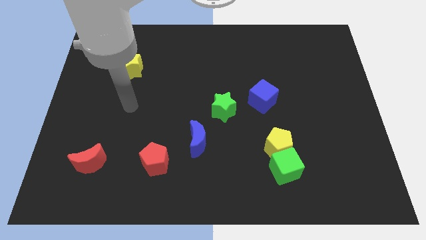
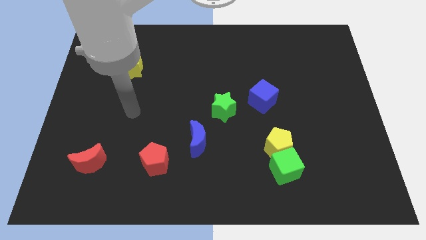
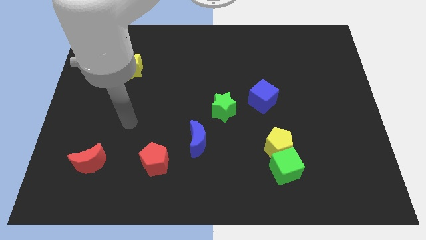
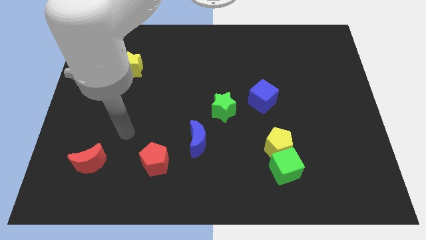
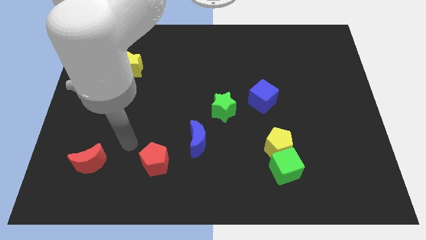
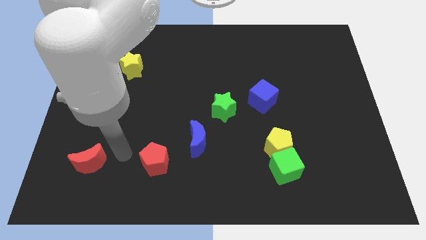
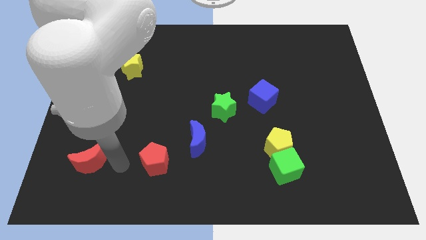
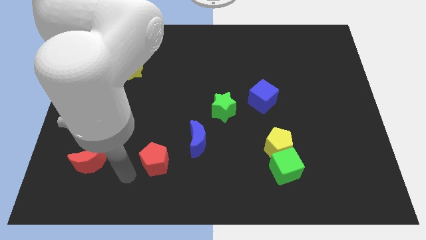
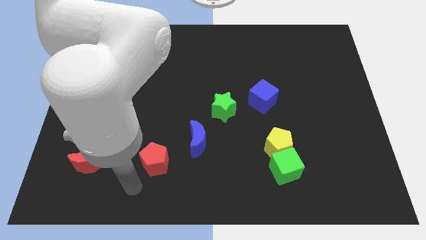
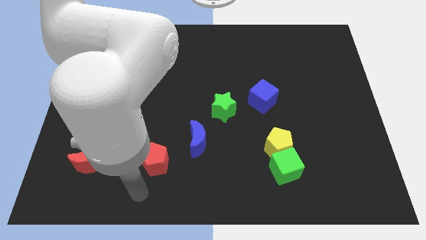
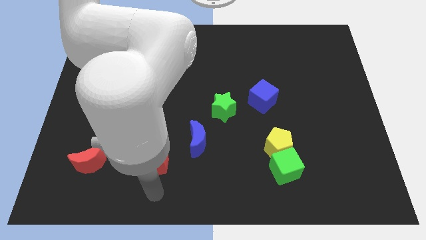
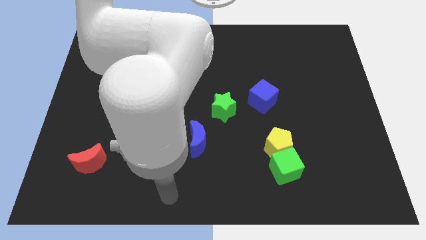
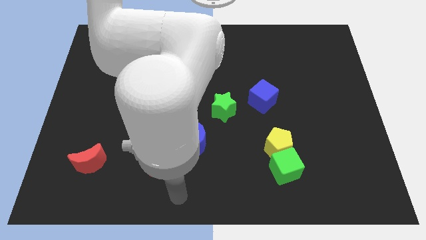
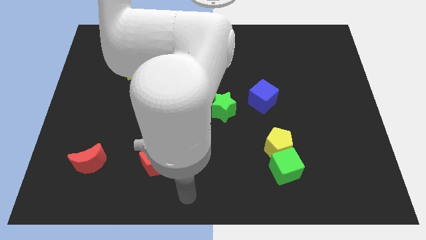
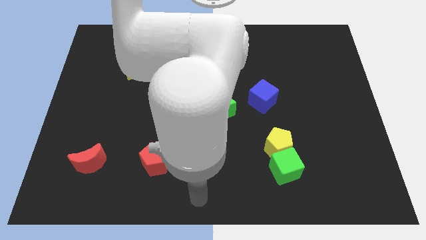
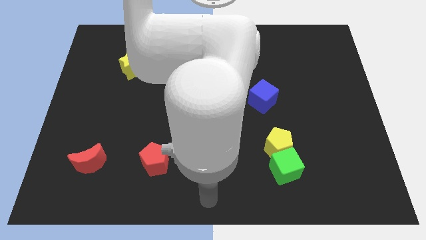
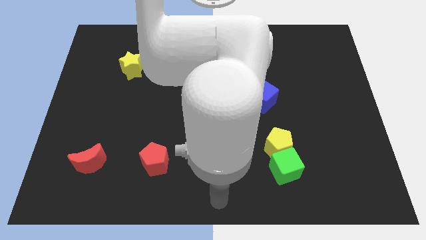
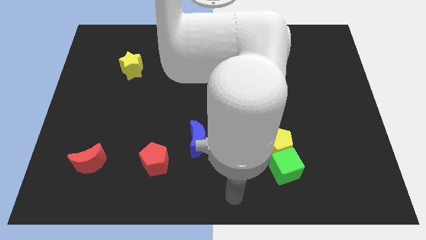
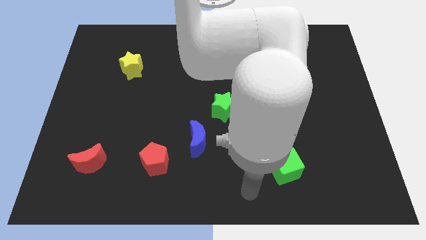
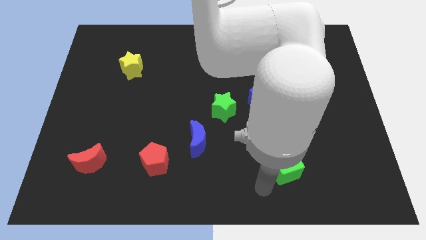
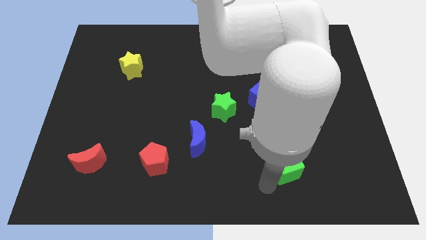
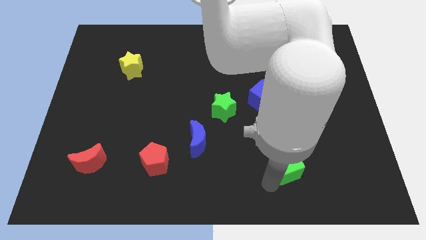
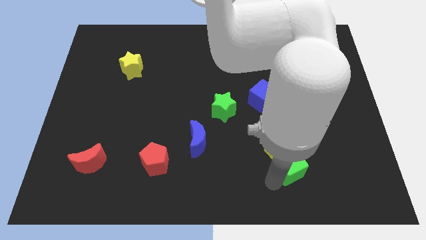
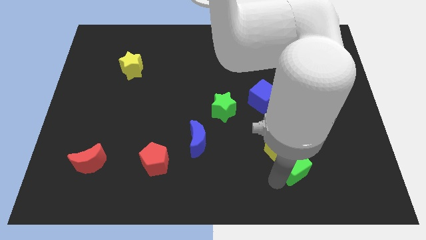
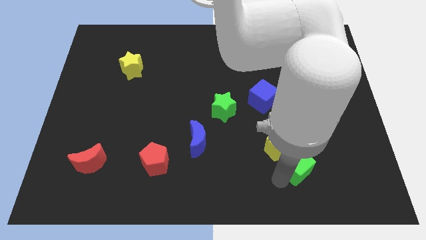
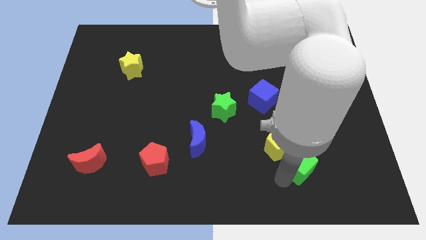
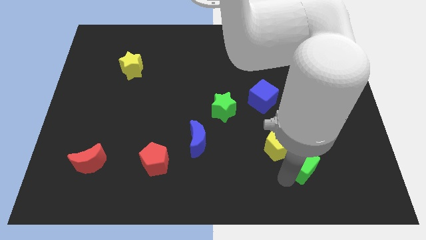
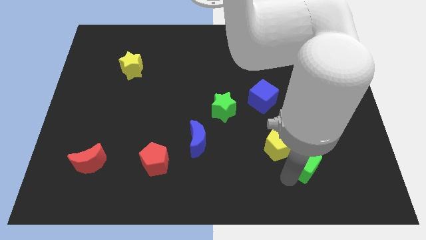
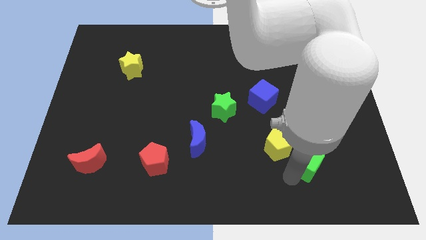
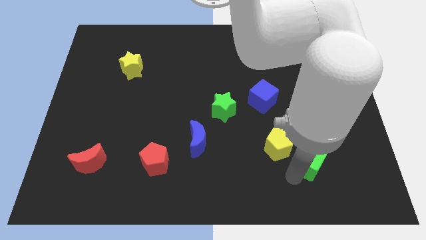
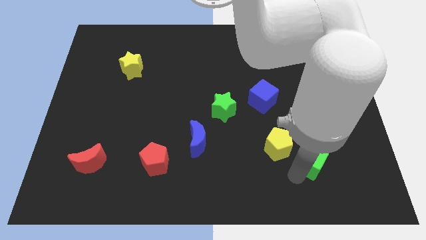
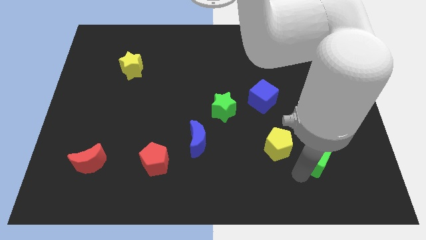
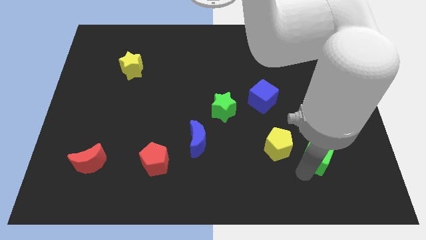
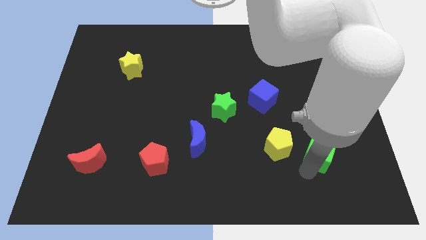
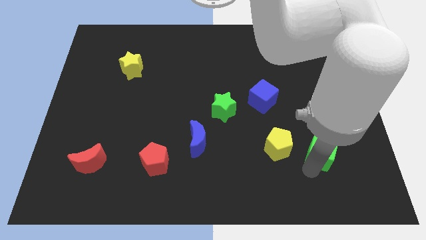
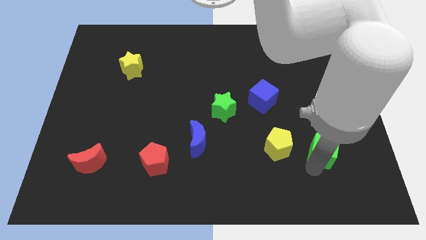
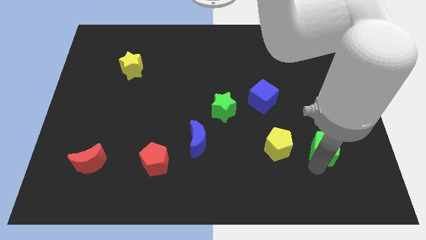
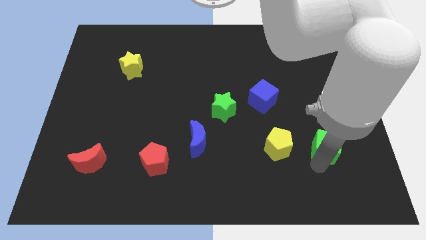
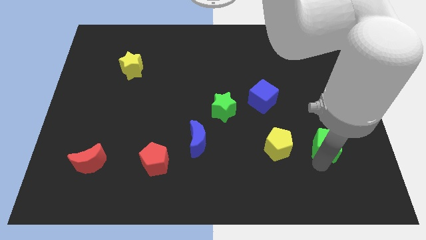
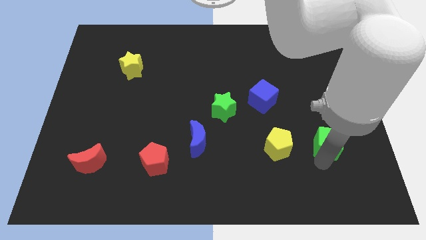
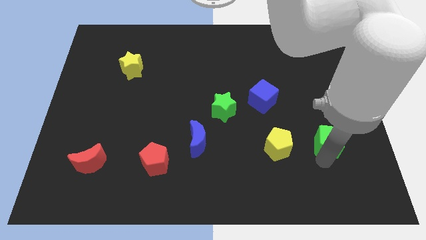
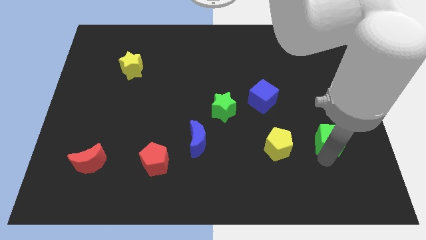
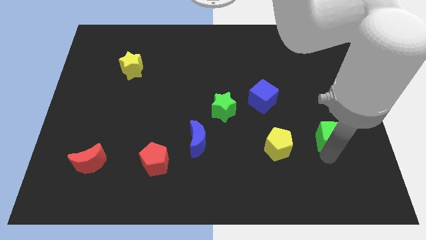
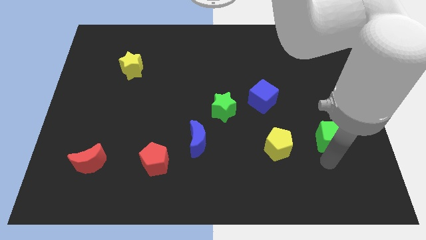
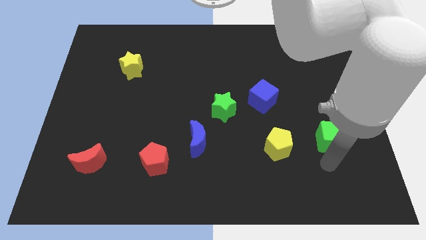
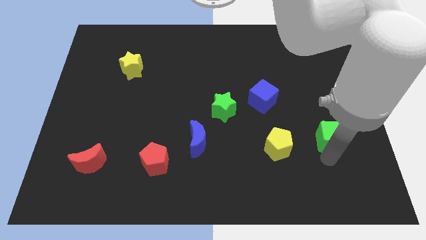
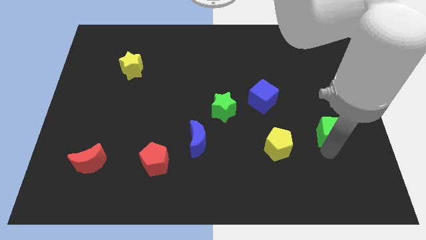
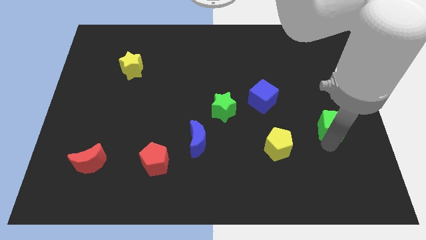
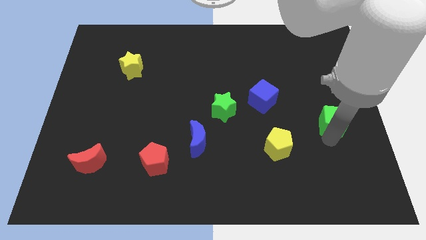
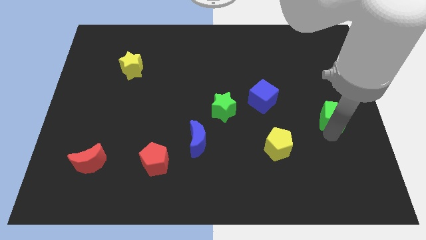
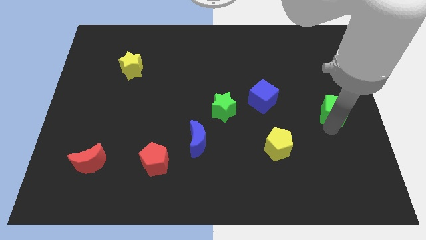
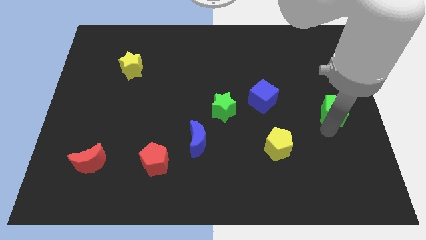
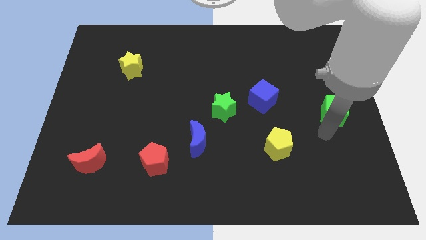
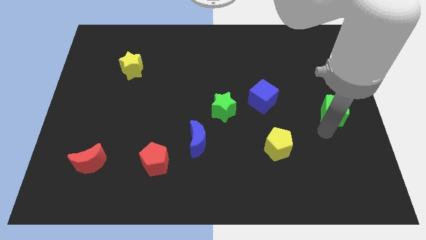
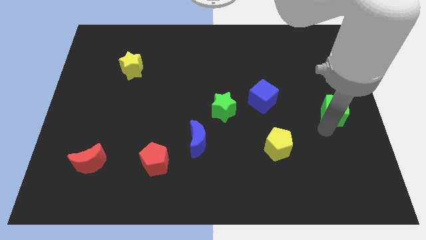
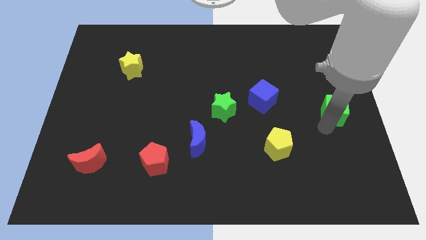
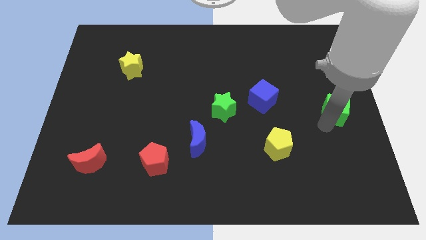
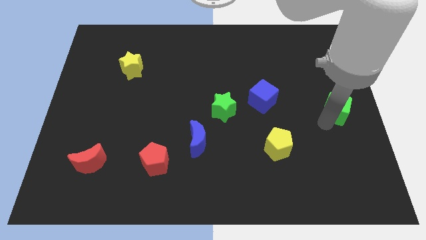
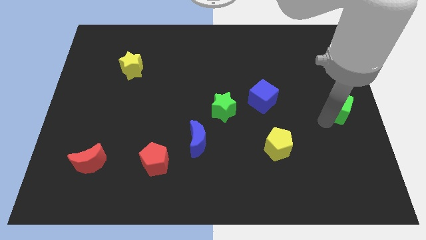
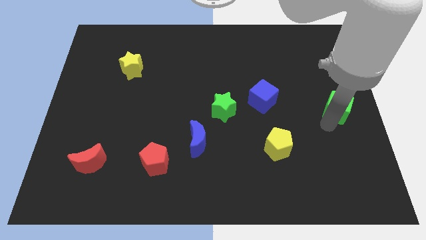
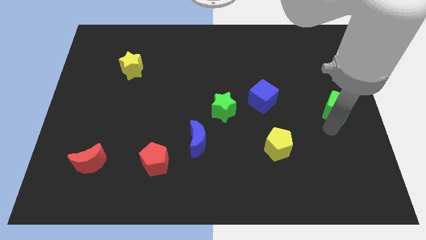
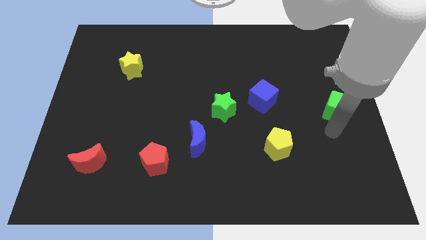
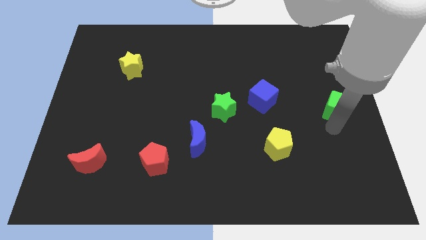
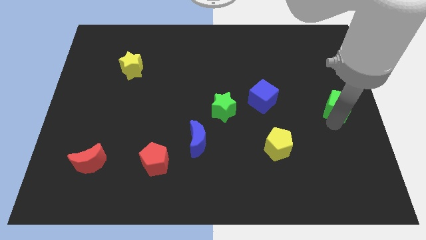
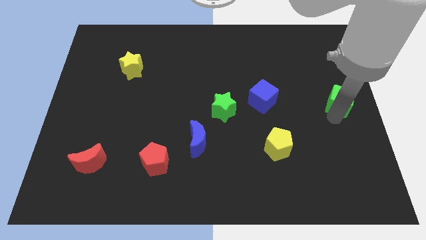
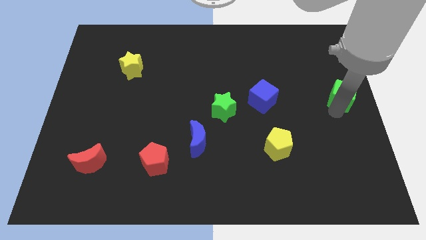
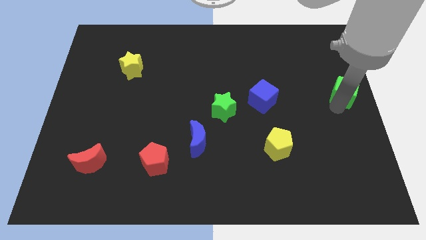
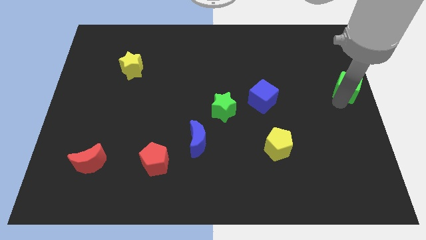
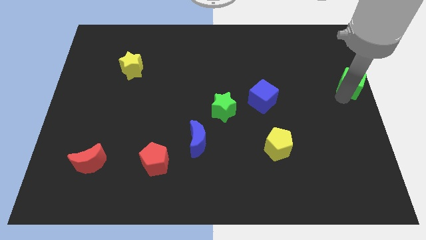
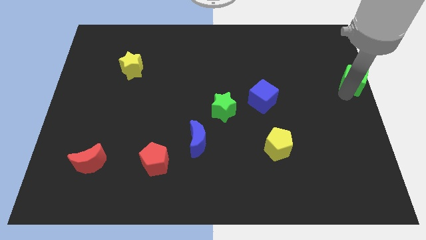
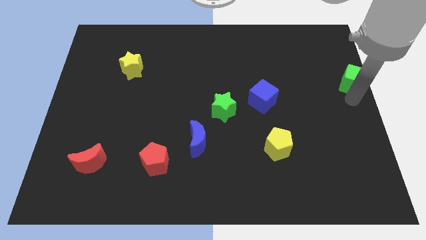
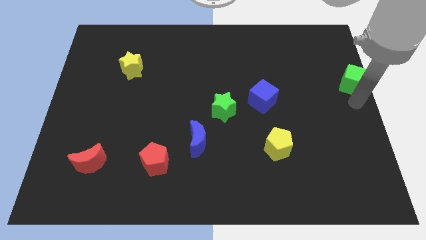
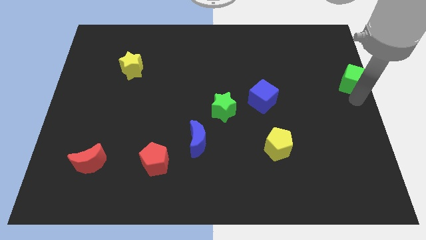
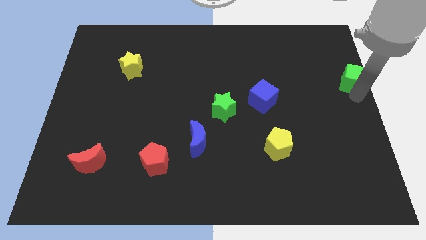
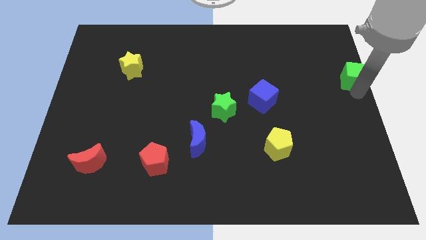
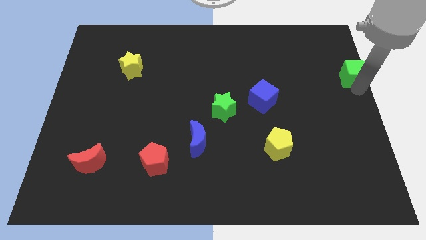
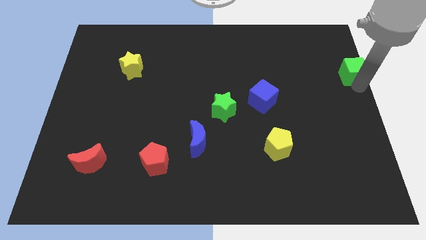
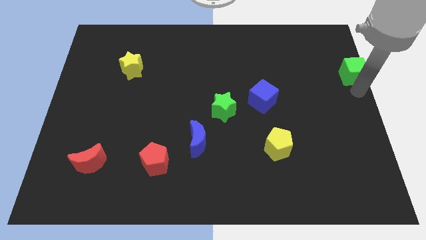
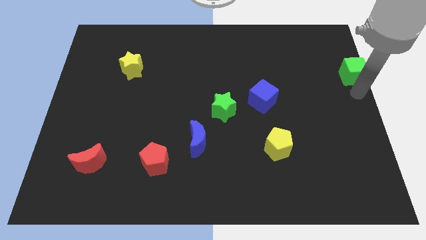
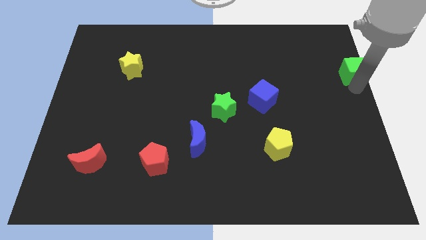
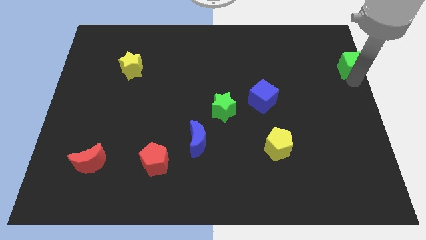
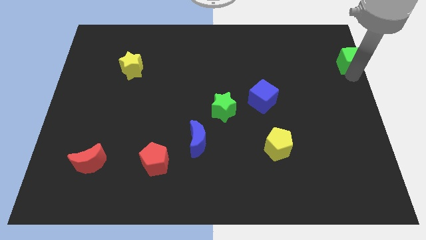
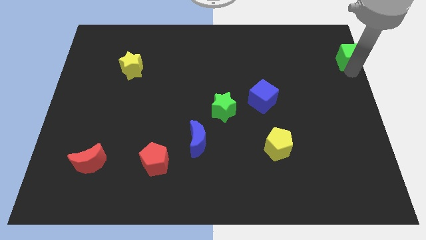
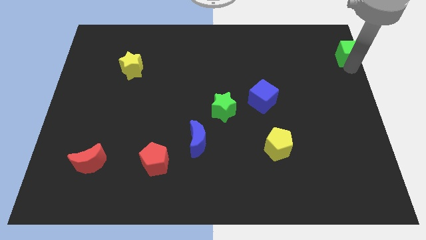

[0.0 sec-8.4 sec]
move the green cube to the top right
